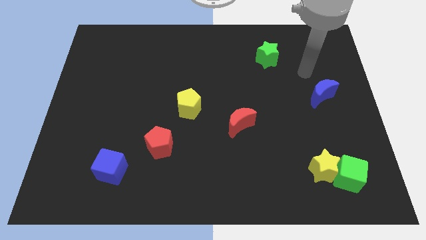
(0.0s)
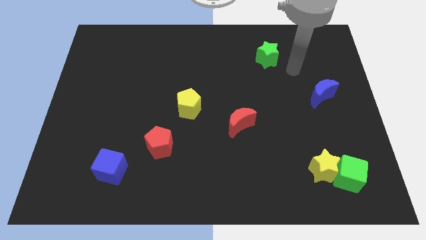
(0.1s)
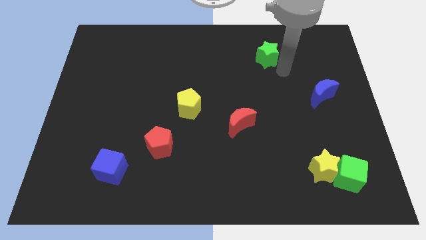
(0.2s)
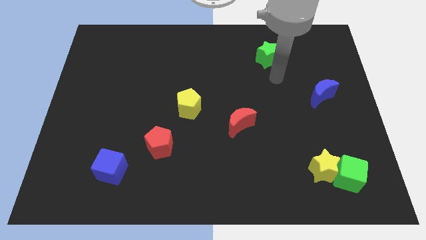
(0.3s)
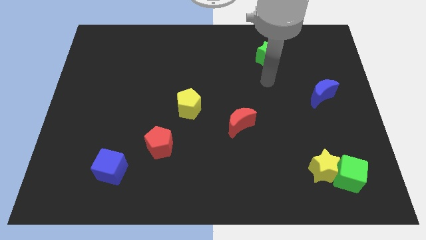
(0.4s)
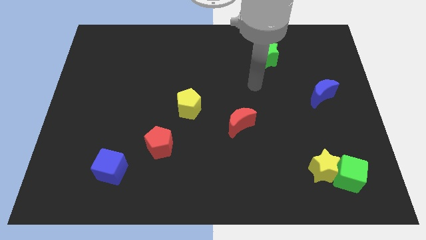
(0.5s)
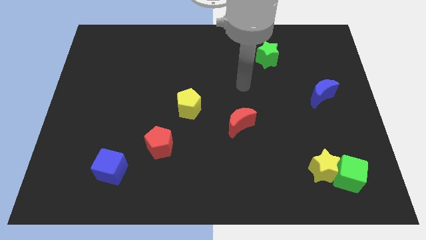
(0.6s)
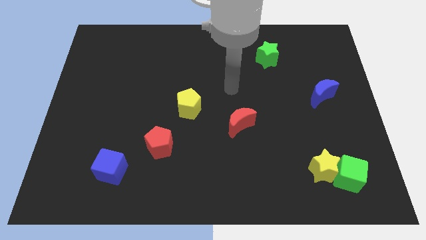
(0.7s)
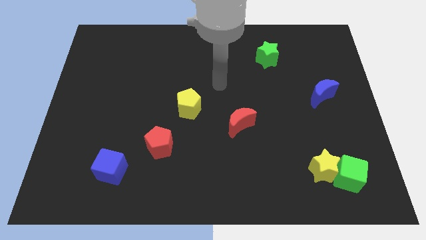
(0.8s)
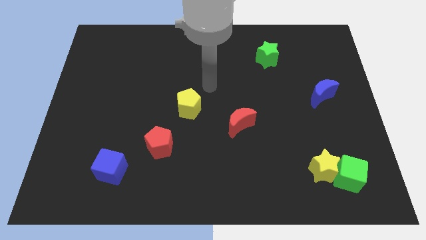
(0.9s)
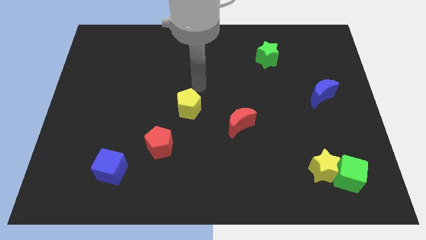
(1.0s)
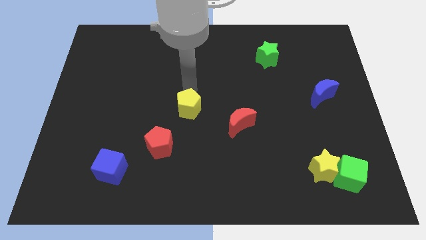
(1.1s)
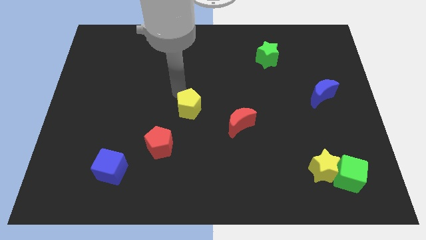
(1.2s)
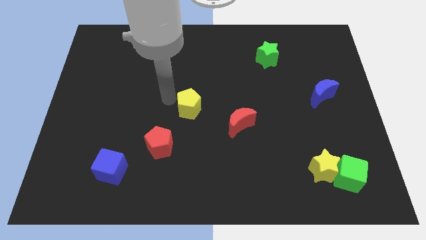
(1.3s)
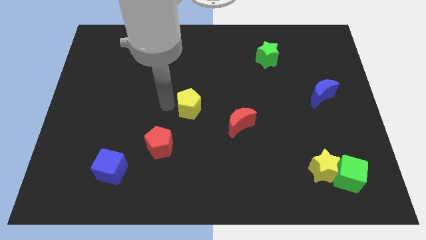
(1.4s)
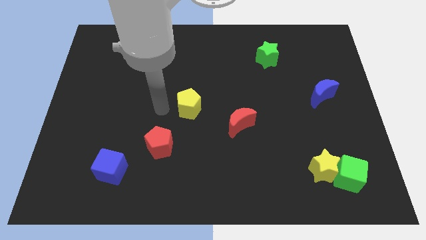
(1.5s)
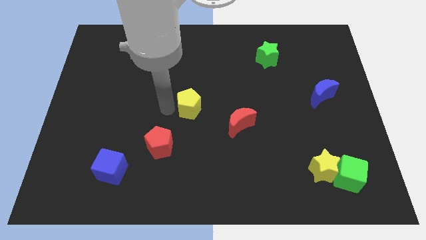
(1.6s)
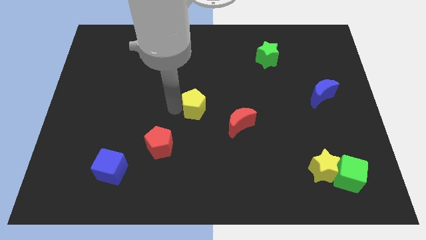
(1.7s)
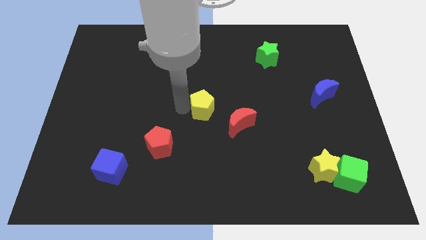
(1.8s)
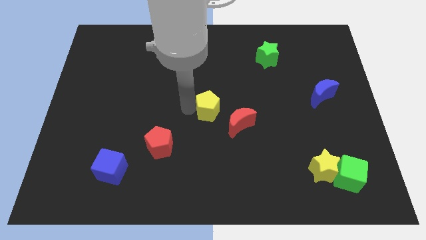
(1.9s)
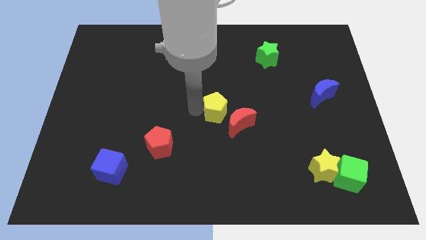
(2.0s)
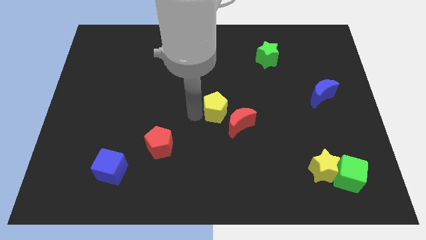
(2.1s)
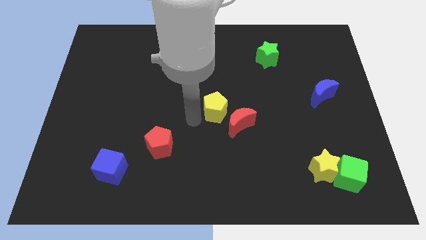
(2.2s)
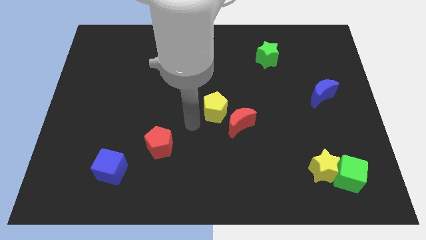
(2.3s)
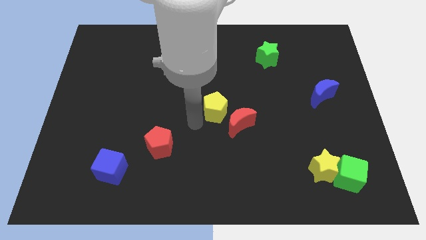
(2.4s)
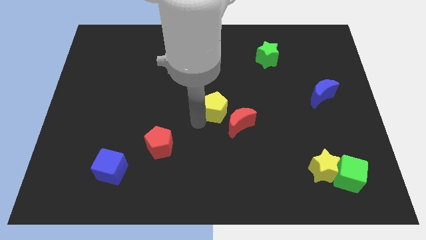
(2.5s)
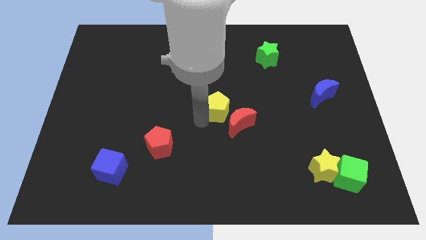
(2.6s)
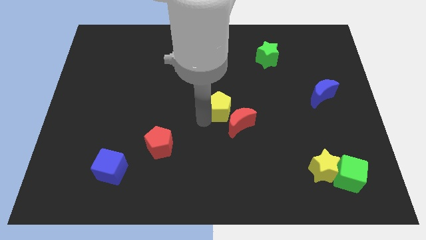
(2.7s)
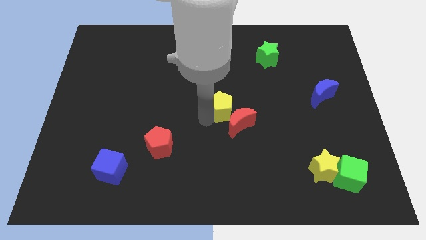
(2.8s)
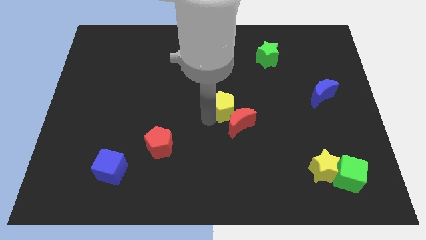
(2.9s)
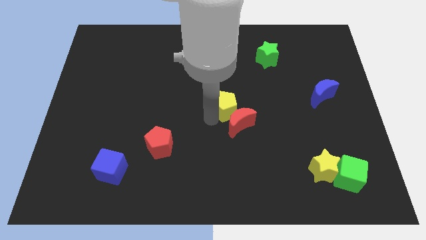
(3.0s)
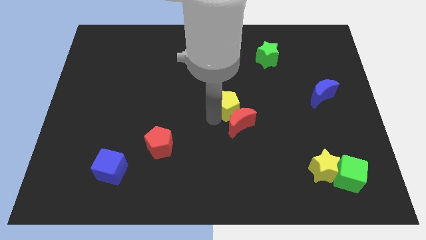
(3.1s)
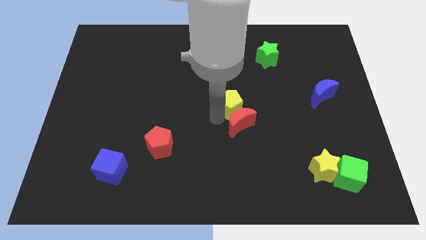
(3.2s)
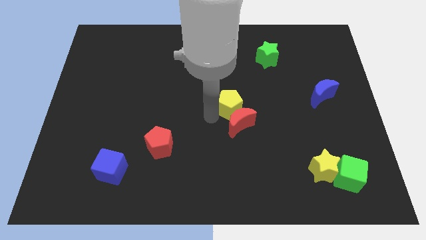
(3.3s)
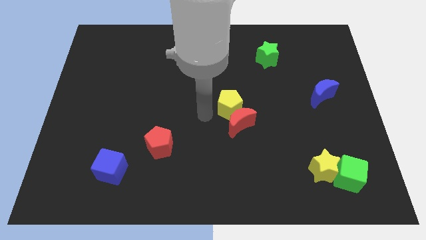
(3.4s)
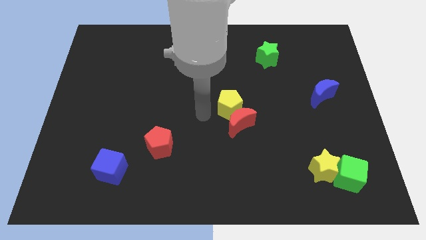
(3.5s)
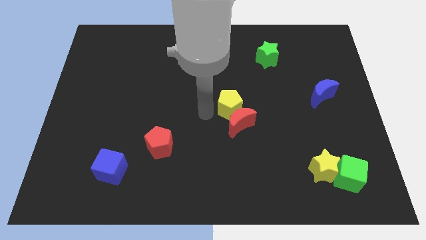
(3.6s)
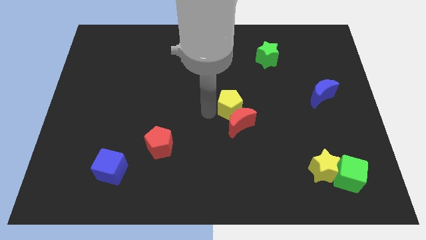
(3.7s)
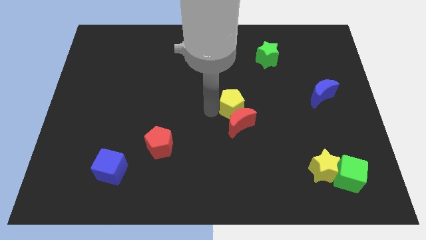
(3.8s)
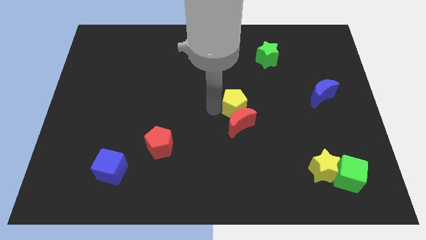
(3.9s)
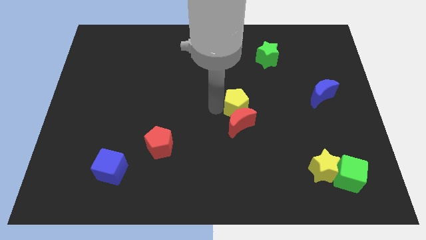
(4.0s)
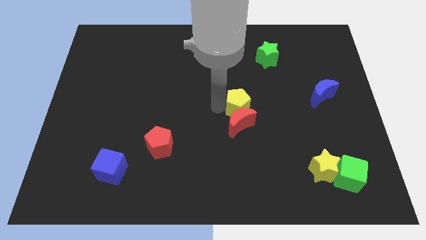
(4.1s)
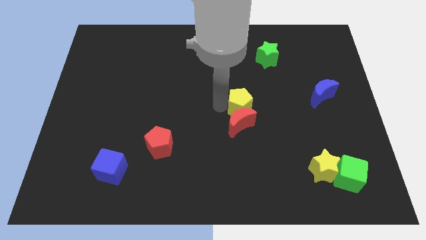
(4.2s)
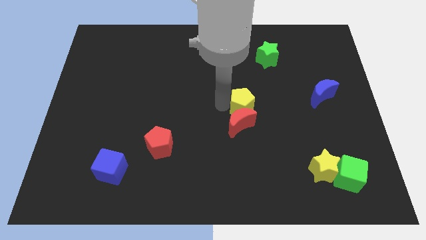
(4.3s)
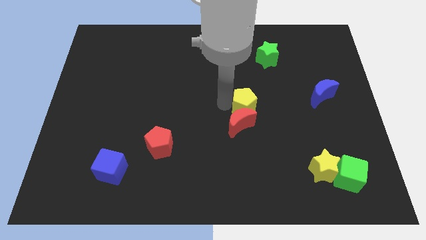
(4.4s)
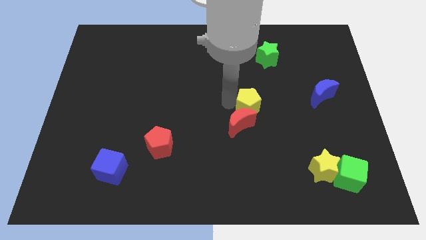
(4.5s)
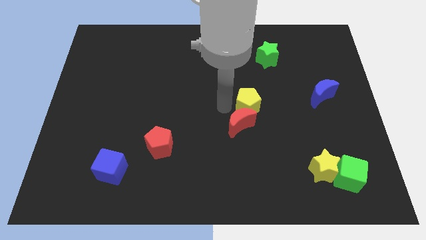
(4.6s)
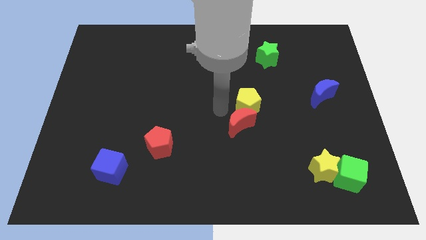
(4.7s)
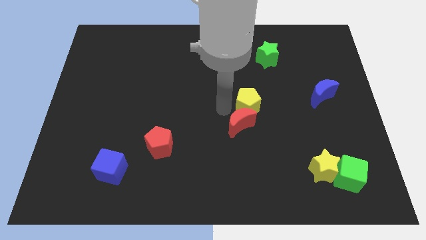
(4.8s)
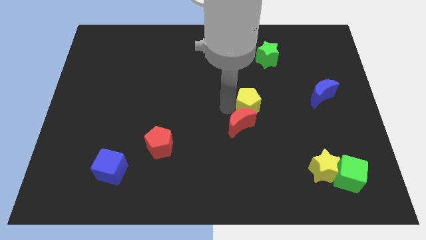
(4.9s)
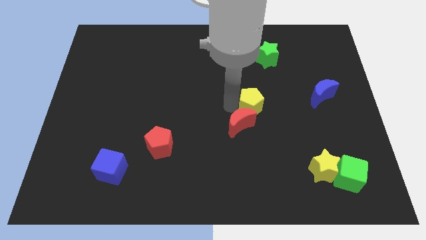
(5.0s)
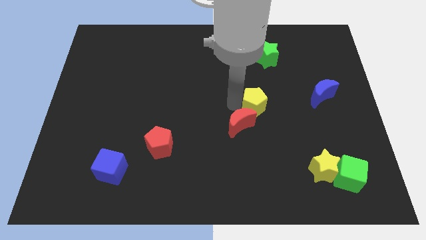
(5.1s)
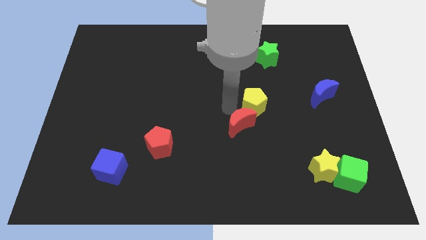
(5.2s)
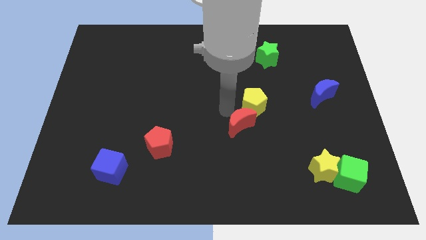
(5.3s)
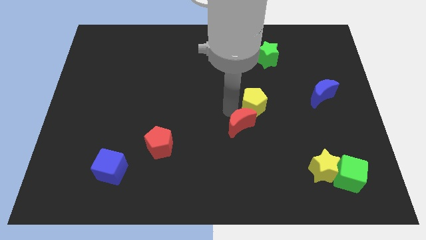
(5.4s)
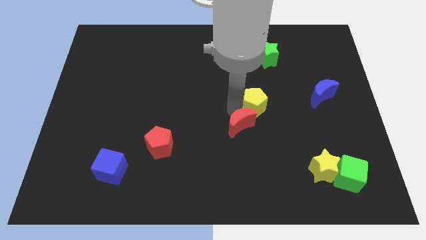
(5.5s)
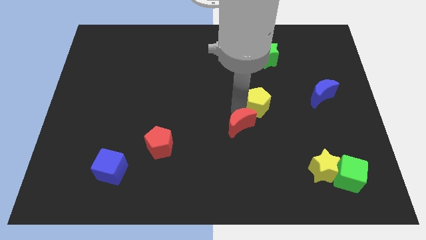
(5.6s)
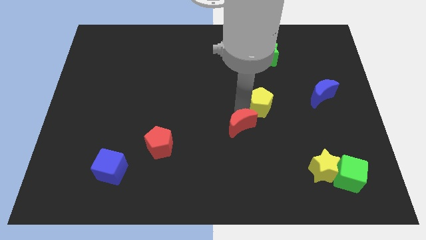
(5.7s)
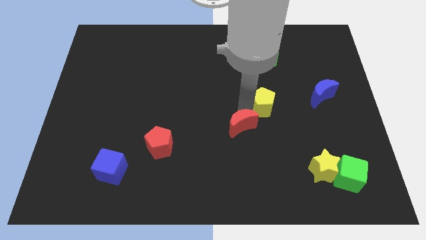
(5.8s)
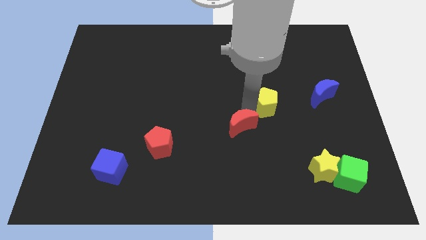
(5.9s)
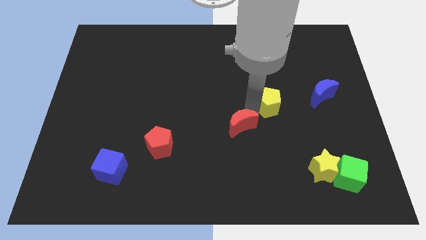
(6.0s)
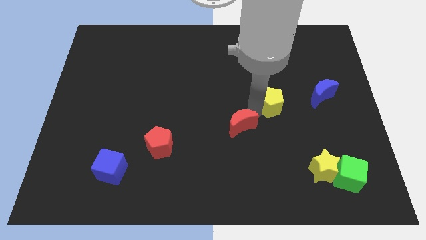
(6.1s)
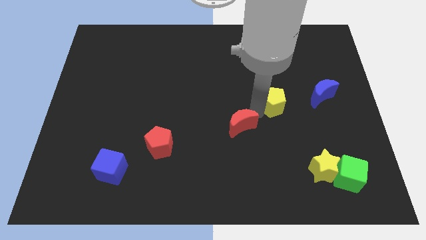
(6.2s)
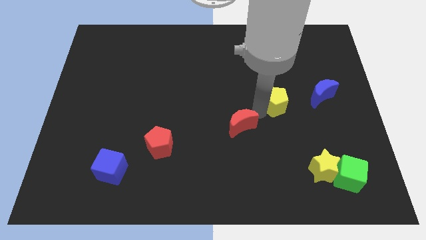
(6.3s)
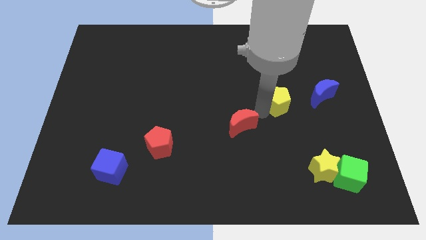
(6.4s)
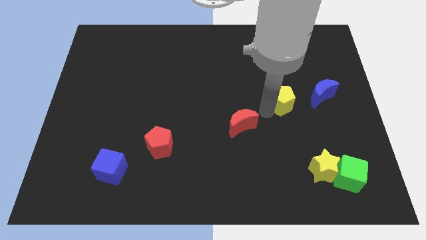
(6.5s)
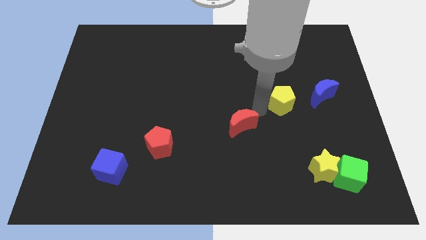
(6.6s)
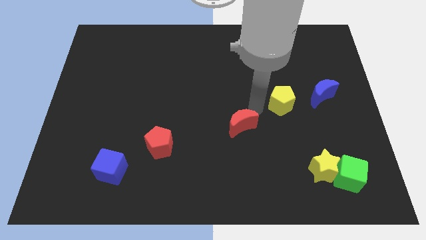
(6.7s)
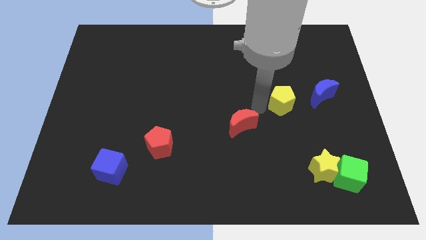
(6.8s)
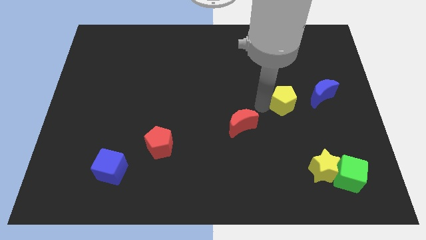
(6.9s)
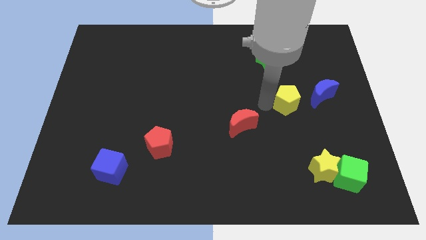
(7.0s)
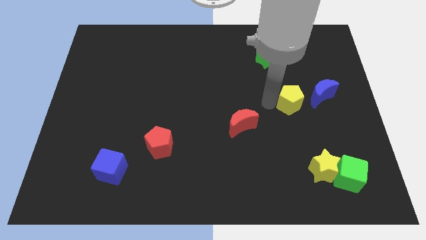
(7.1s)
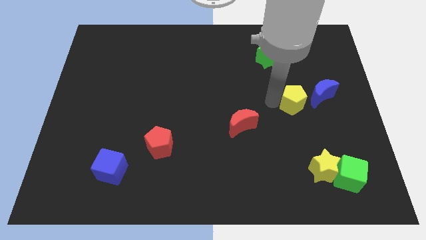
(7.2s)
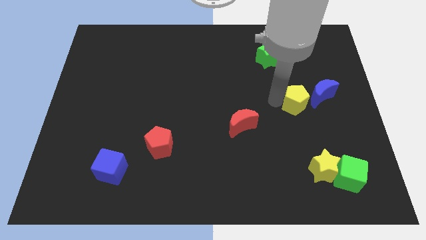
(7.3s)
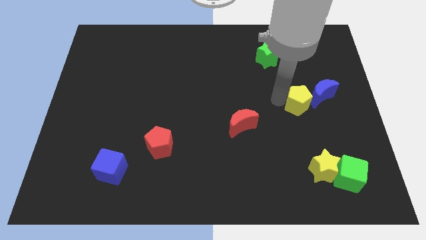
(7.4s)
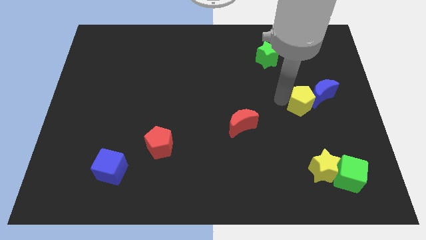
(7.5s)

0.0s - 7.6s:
push the yellow pentagon to the blue moon
